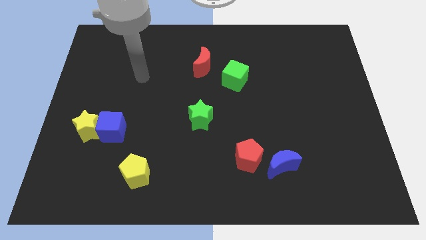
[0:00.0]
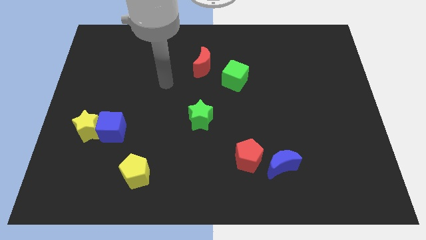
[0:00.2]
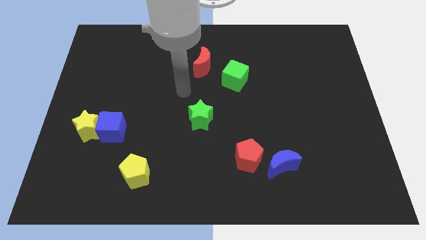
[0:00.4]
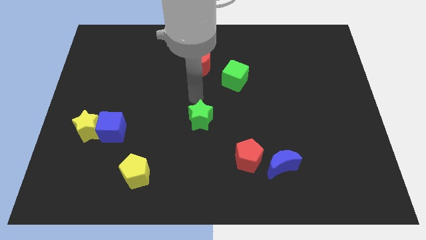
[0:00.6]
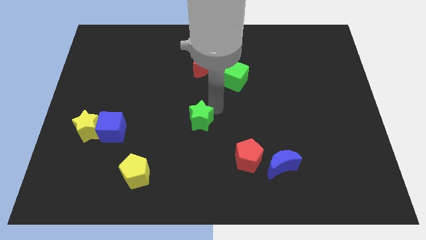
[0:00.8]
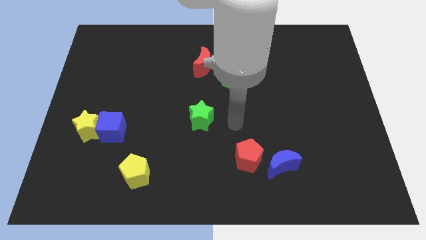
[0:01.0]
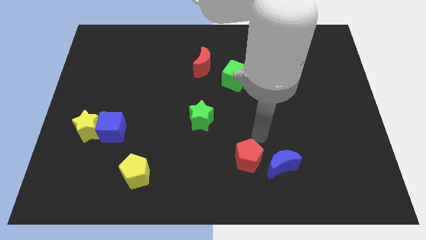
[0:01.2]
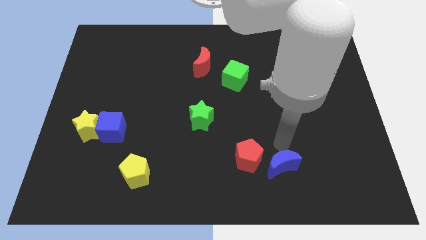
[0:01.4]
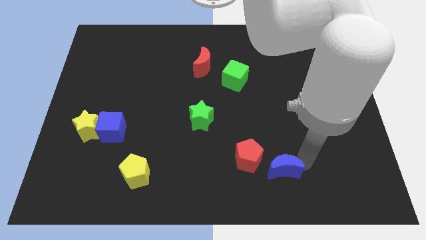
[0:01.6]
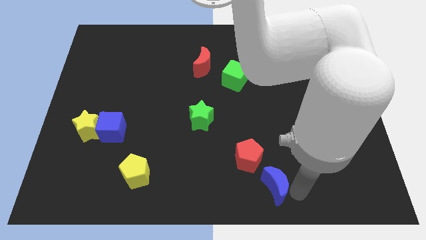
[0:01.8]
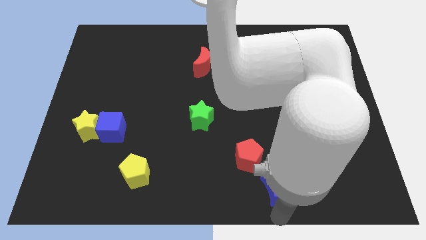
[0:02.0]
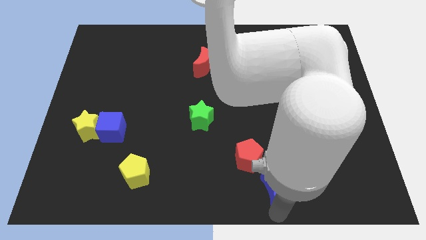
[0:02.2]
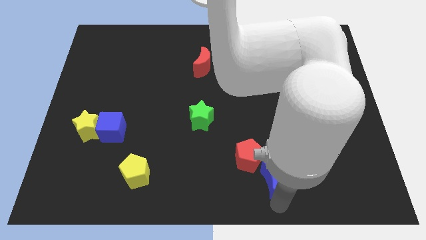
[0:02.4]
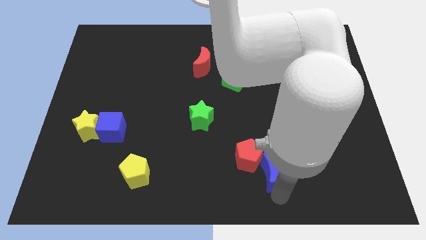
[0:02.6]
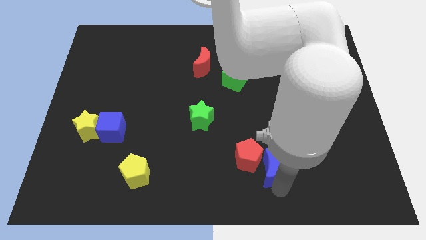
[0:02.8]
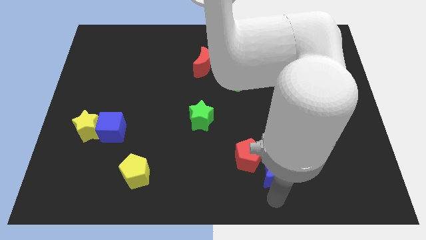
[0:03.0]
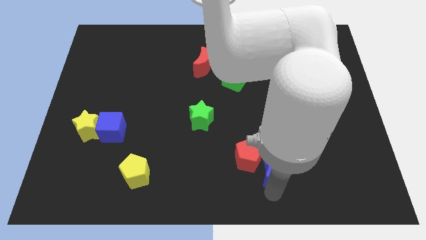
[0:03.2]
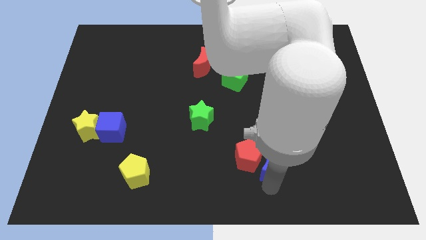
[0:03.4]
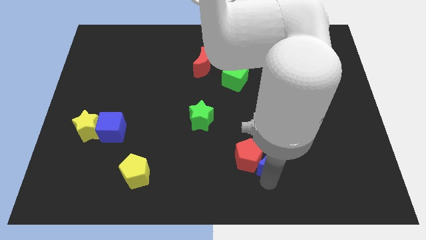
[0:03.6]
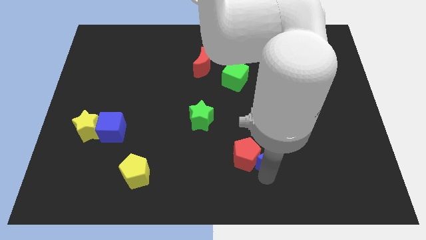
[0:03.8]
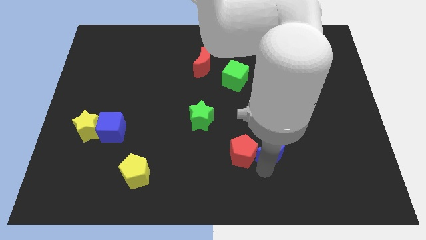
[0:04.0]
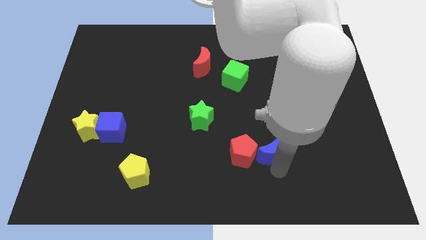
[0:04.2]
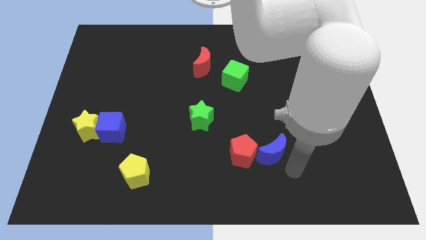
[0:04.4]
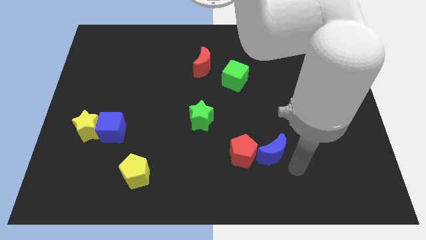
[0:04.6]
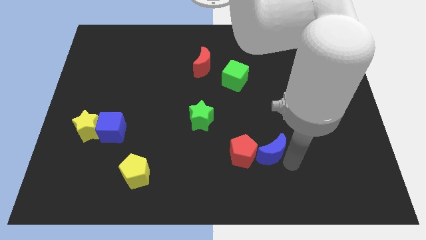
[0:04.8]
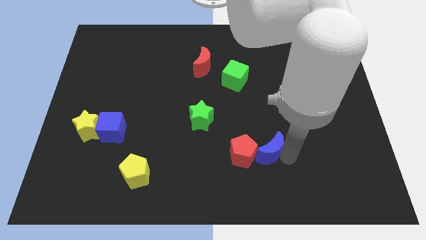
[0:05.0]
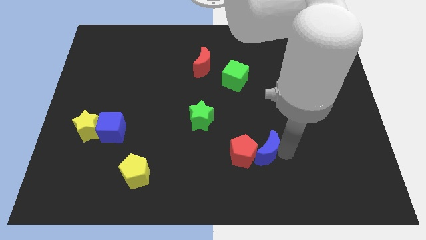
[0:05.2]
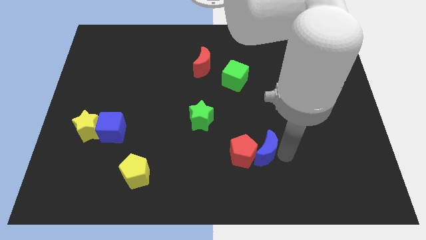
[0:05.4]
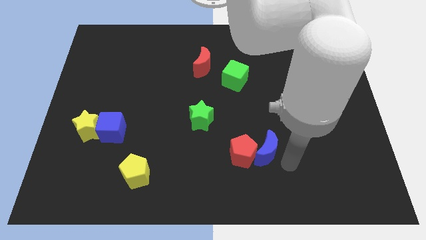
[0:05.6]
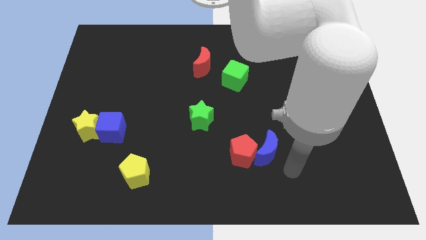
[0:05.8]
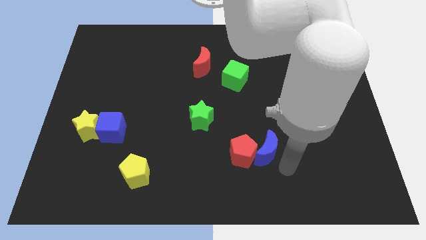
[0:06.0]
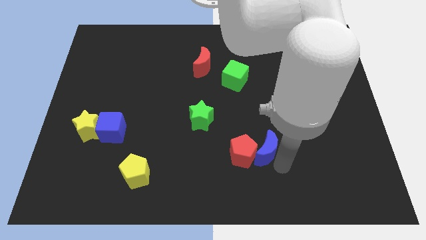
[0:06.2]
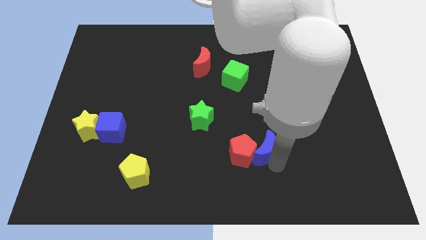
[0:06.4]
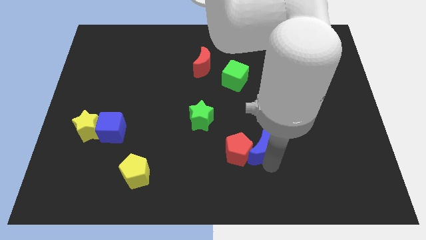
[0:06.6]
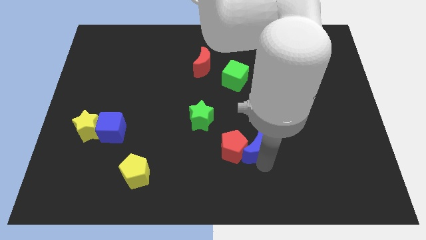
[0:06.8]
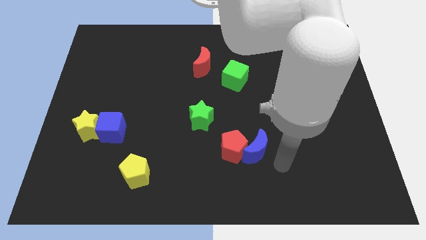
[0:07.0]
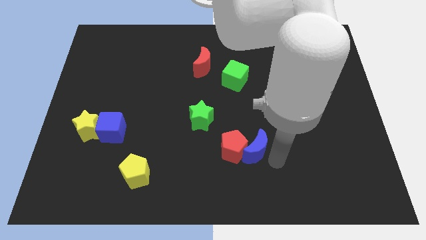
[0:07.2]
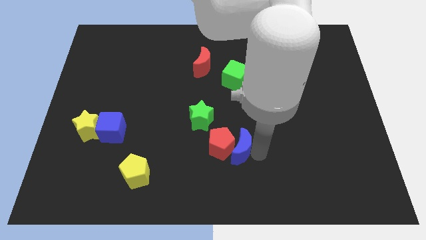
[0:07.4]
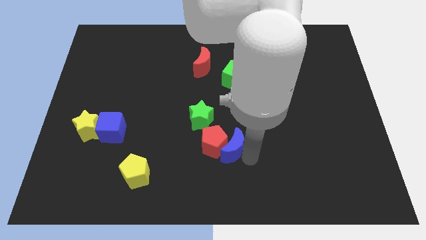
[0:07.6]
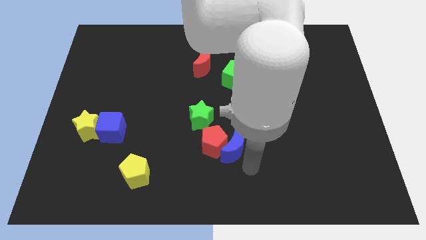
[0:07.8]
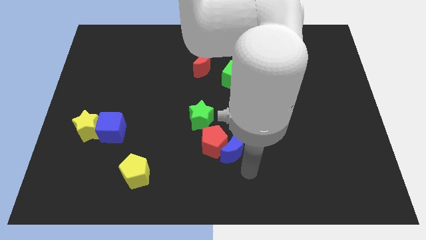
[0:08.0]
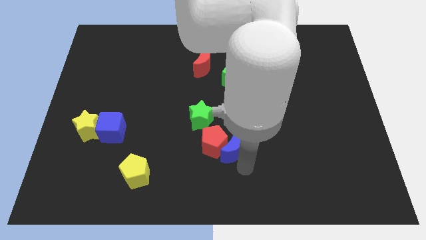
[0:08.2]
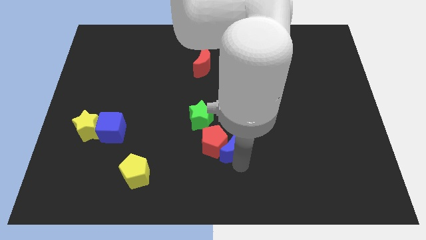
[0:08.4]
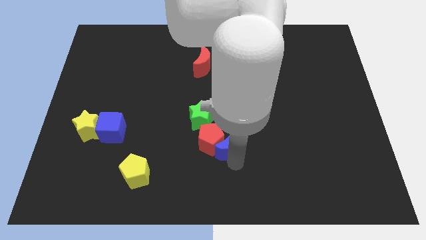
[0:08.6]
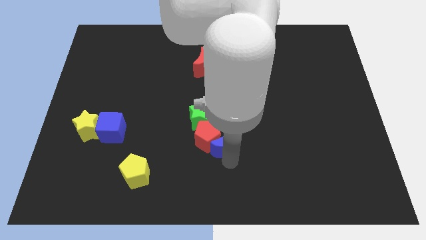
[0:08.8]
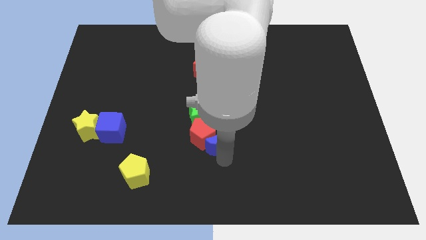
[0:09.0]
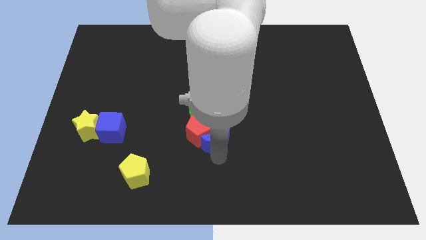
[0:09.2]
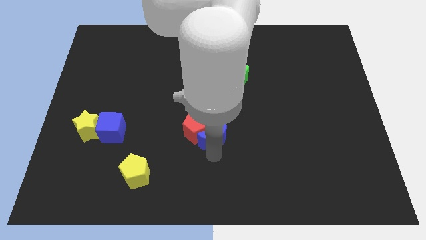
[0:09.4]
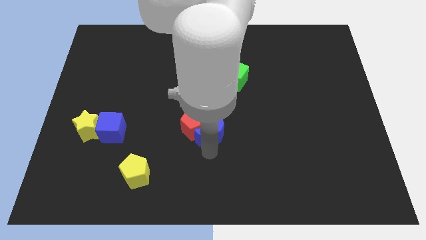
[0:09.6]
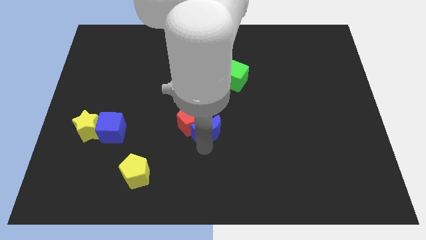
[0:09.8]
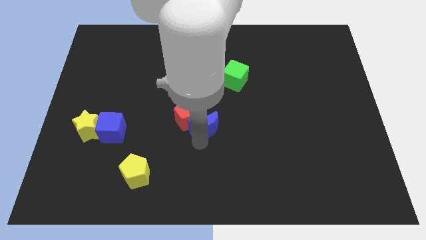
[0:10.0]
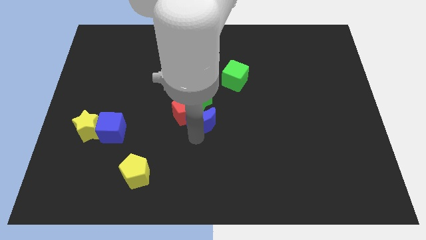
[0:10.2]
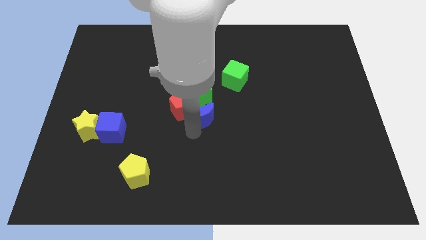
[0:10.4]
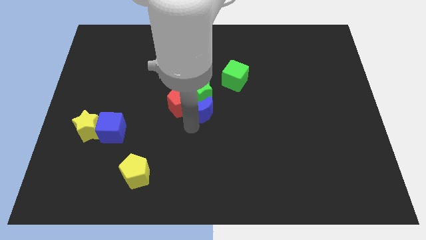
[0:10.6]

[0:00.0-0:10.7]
push the blue moon next to the green star
